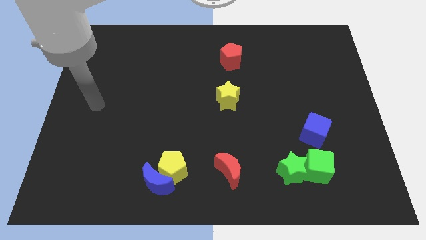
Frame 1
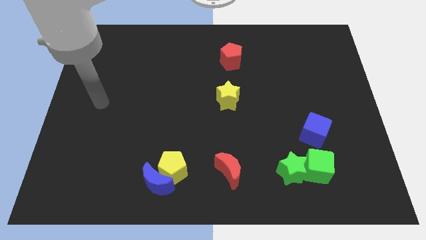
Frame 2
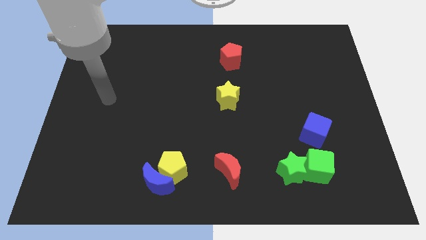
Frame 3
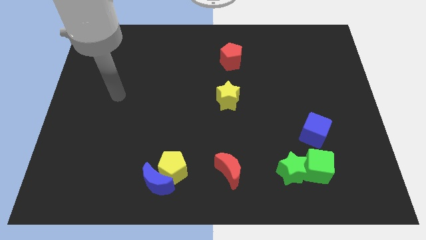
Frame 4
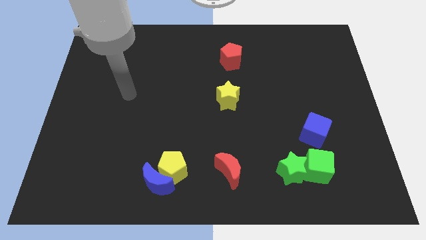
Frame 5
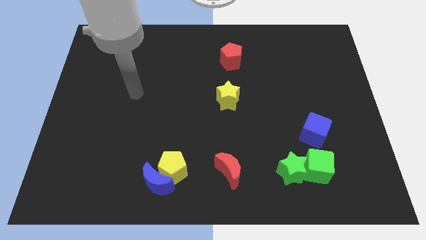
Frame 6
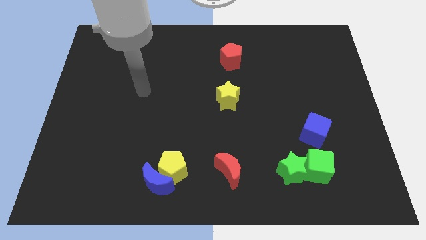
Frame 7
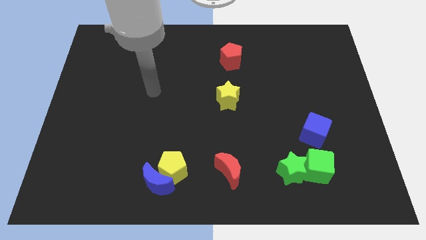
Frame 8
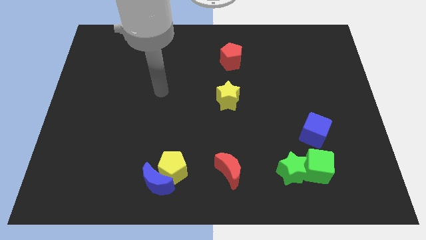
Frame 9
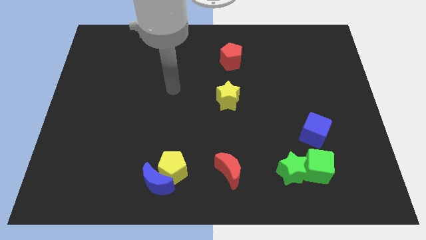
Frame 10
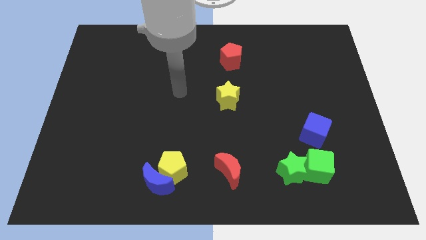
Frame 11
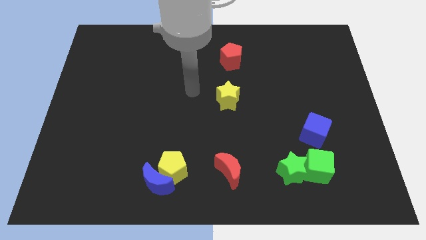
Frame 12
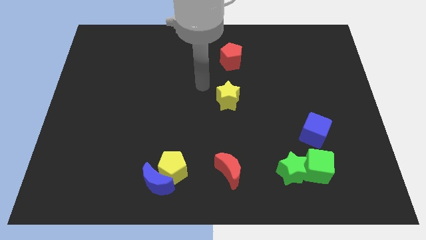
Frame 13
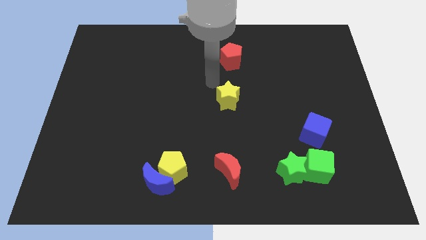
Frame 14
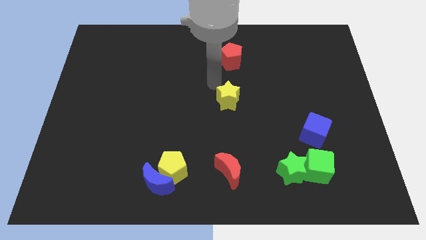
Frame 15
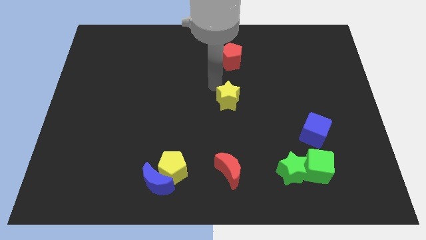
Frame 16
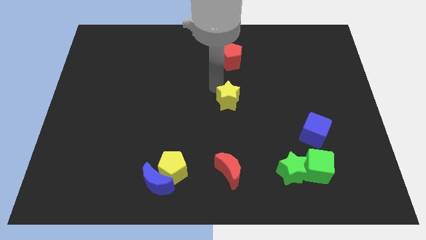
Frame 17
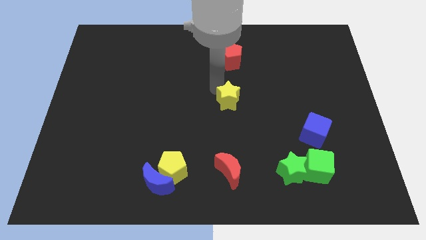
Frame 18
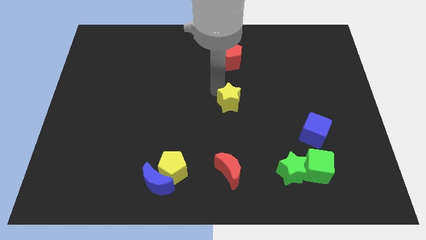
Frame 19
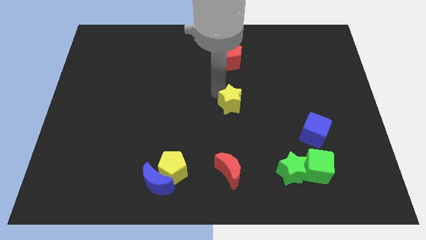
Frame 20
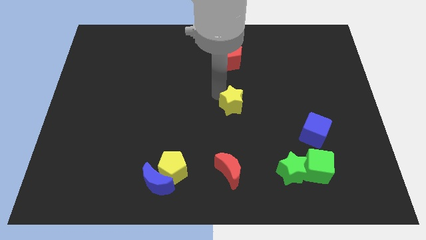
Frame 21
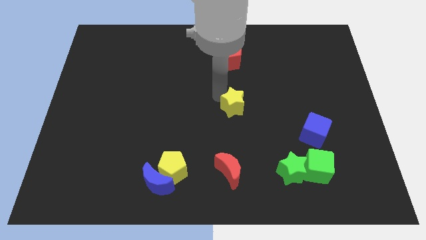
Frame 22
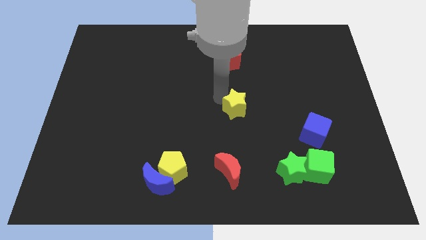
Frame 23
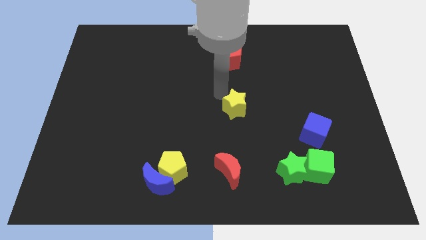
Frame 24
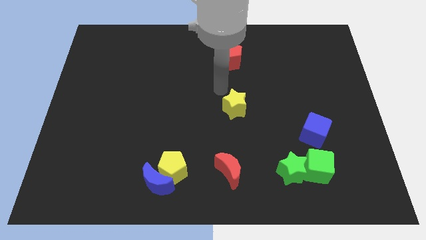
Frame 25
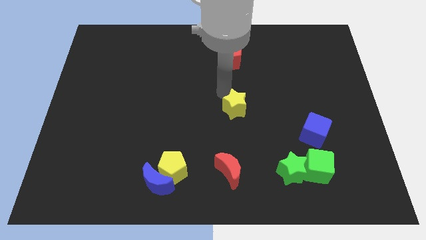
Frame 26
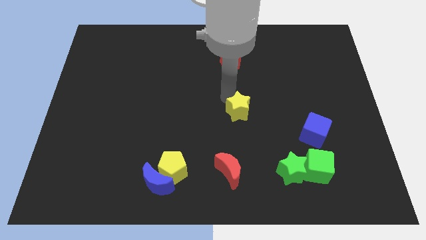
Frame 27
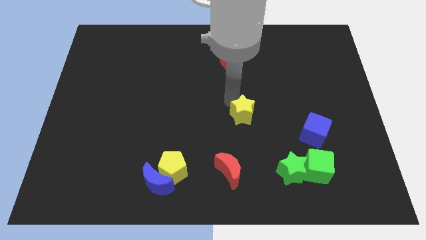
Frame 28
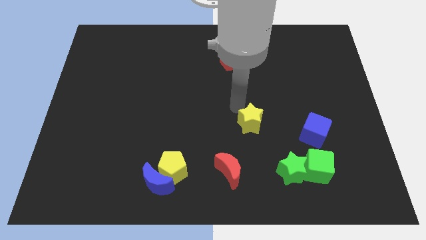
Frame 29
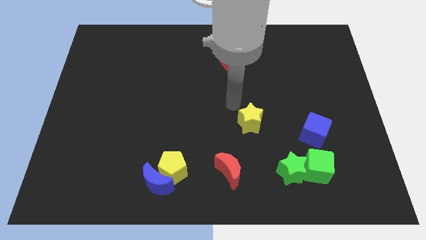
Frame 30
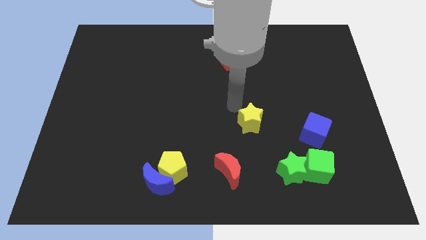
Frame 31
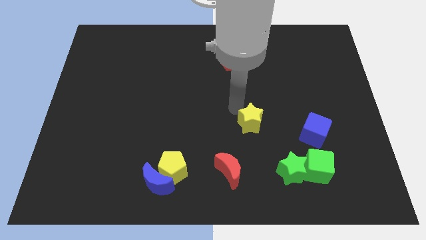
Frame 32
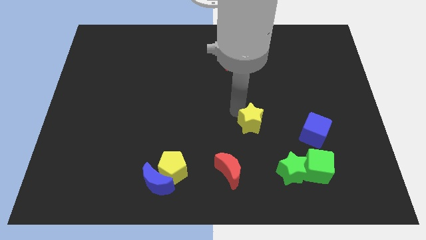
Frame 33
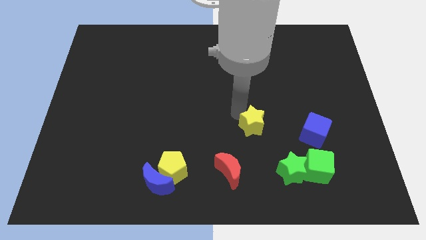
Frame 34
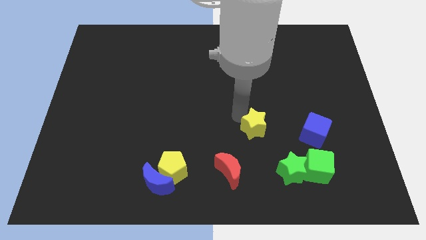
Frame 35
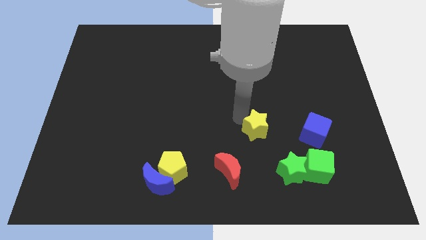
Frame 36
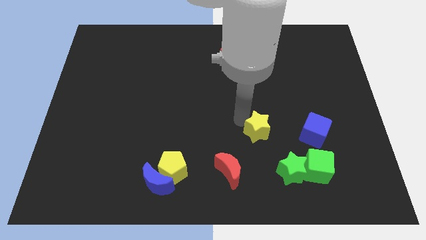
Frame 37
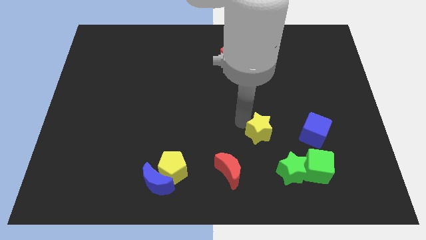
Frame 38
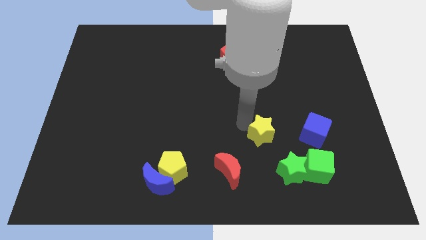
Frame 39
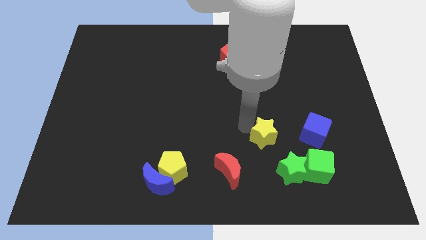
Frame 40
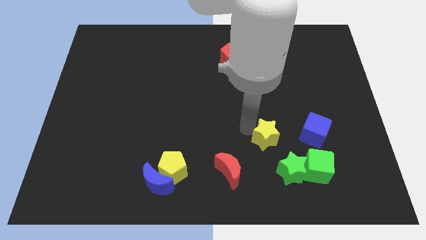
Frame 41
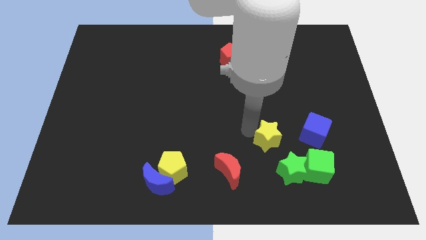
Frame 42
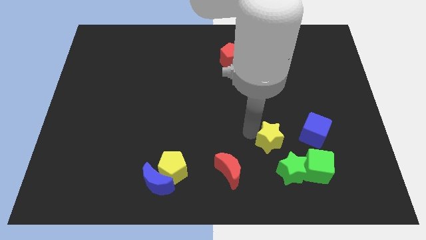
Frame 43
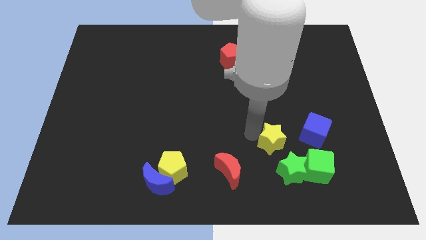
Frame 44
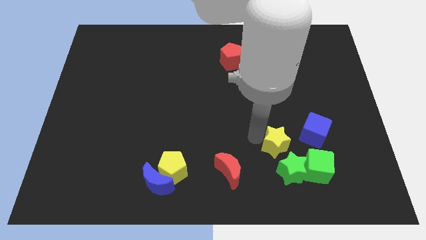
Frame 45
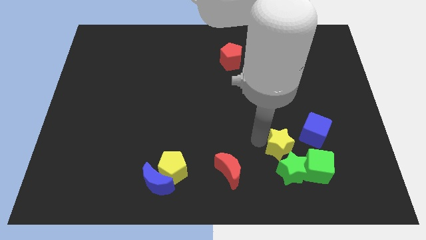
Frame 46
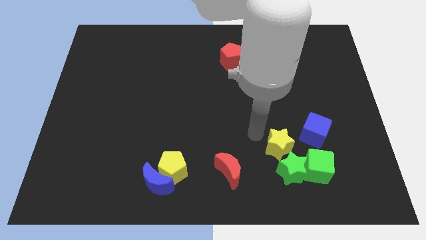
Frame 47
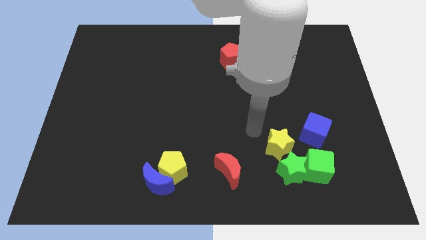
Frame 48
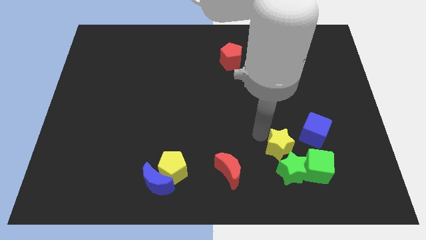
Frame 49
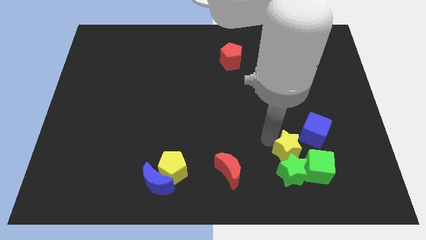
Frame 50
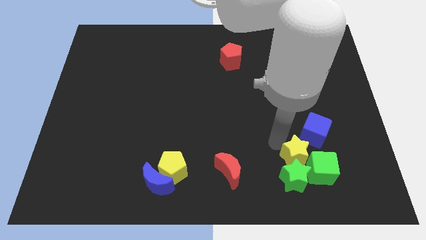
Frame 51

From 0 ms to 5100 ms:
slide the yellow star close to the green cube

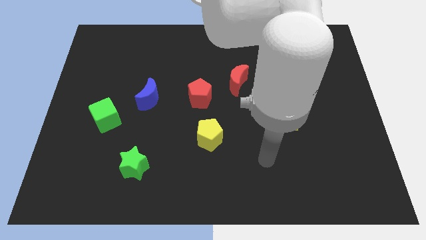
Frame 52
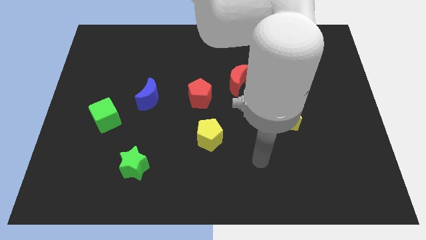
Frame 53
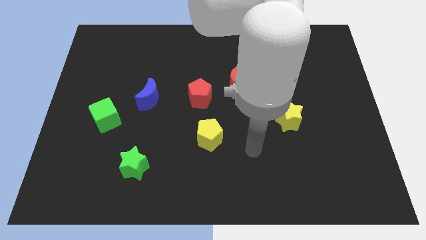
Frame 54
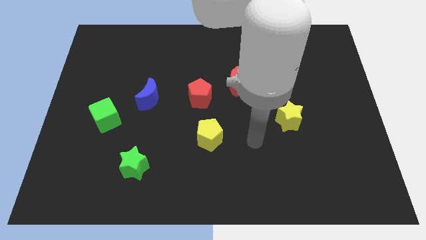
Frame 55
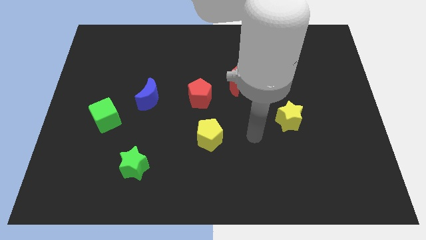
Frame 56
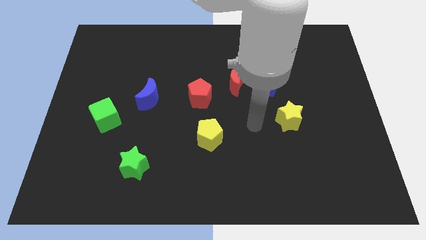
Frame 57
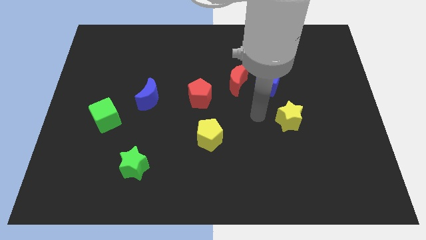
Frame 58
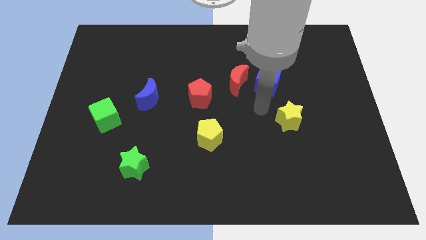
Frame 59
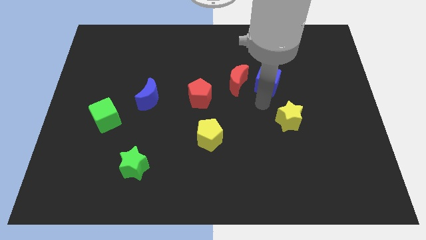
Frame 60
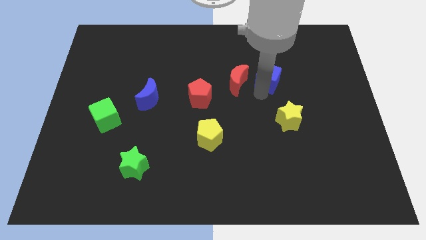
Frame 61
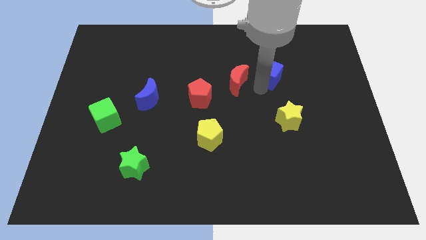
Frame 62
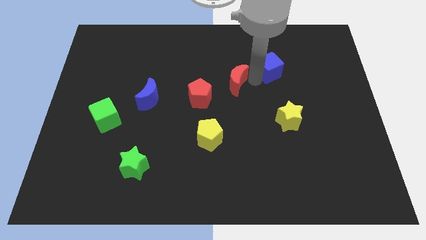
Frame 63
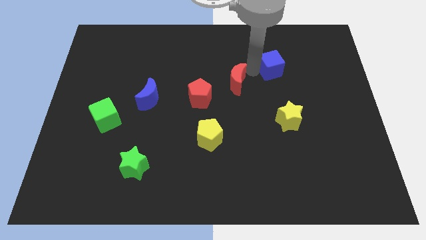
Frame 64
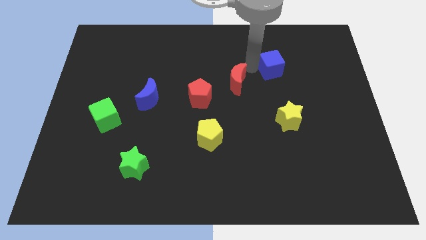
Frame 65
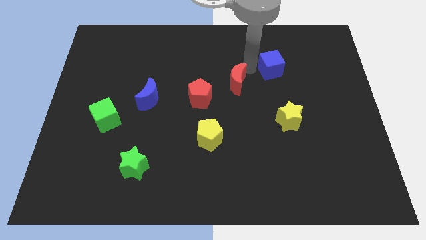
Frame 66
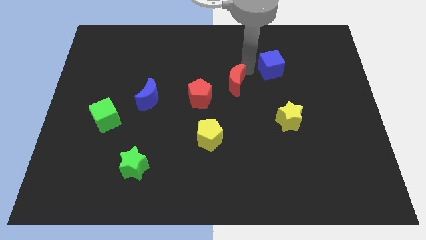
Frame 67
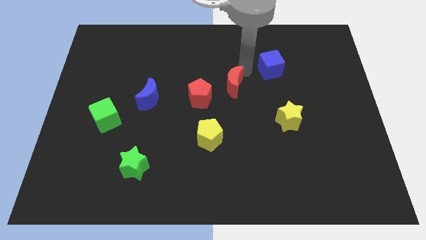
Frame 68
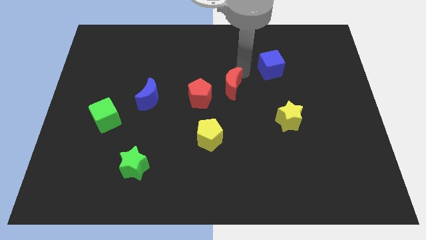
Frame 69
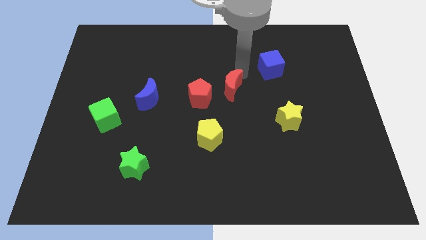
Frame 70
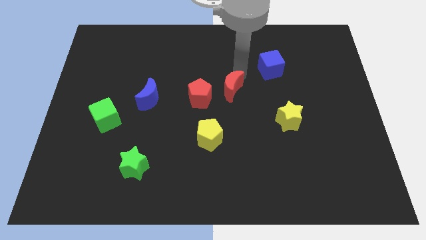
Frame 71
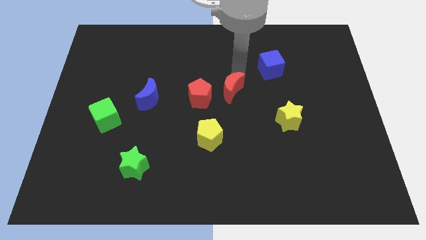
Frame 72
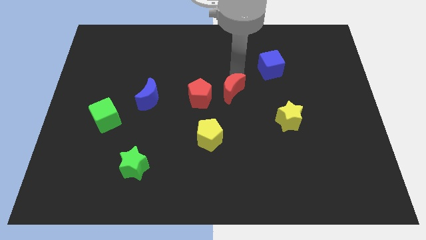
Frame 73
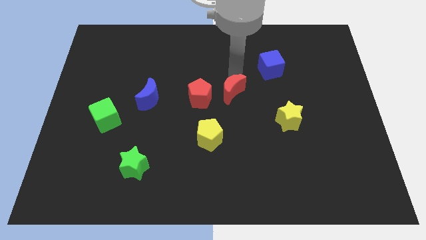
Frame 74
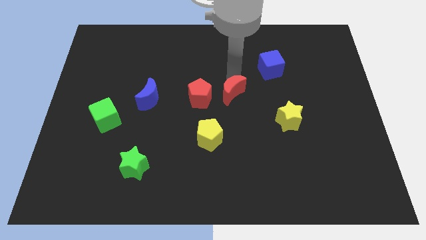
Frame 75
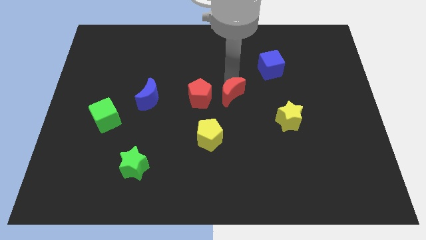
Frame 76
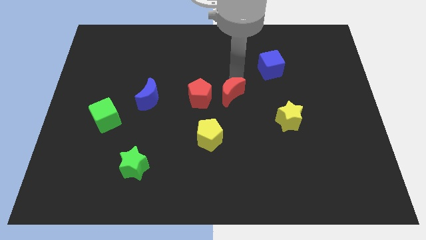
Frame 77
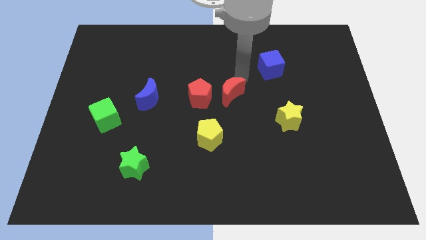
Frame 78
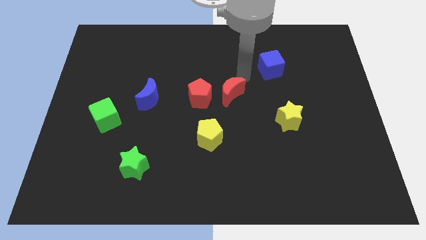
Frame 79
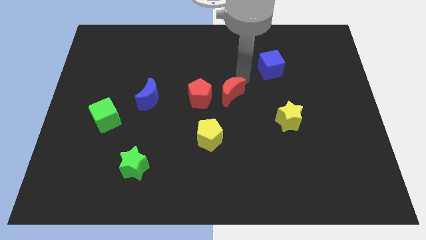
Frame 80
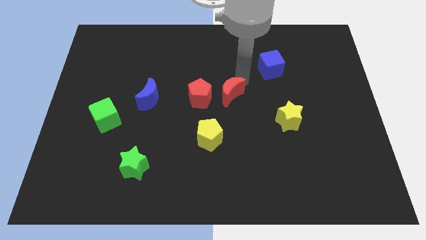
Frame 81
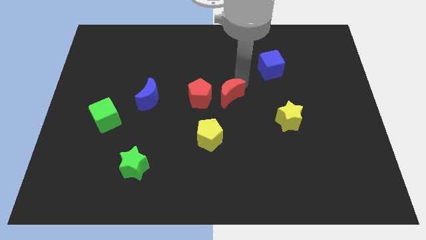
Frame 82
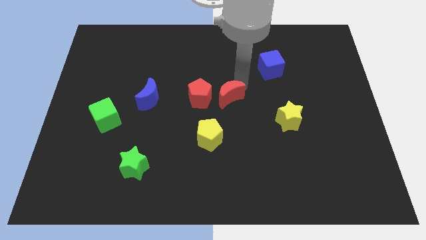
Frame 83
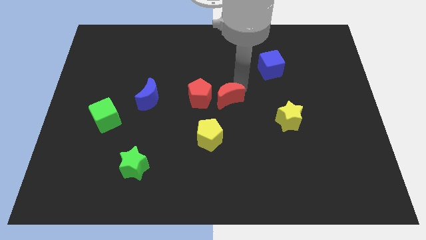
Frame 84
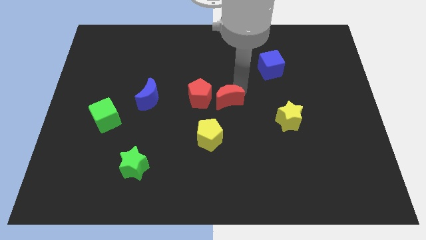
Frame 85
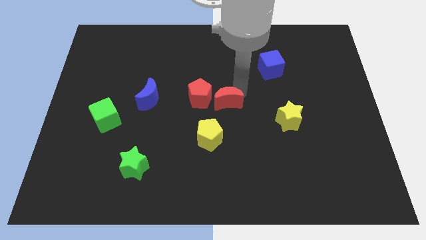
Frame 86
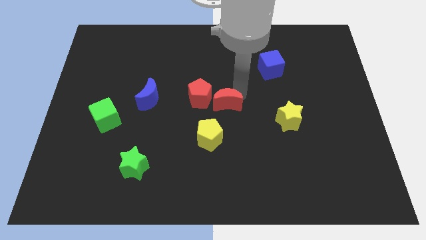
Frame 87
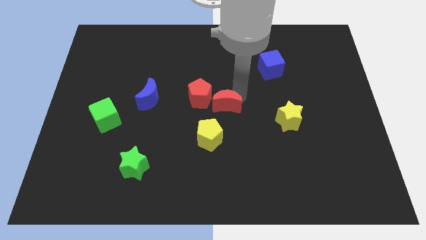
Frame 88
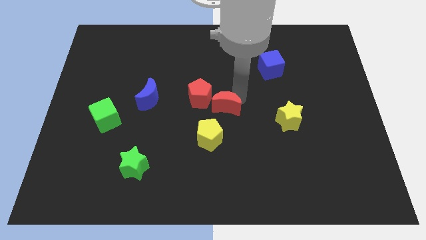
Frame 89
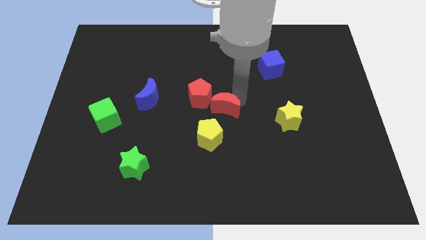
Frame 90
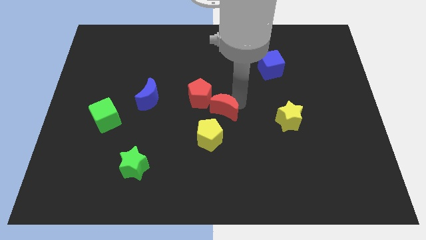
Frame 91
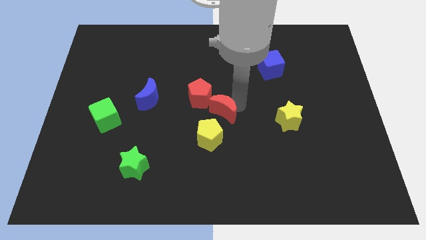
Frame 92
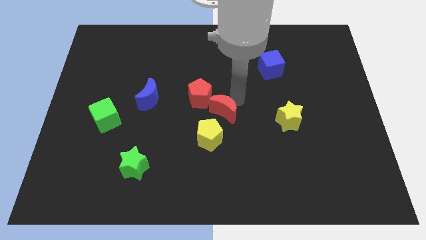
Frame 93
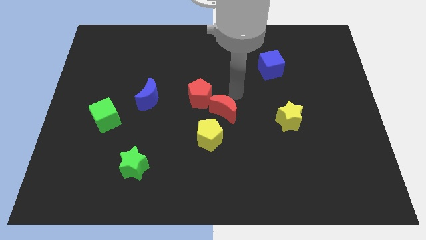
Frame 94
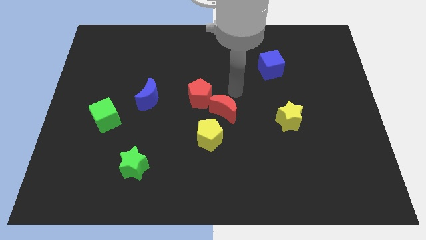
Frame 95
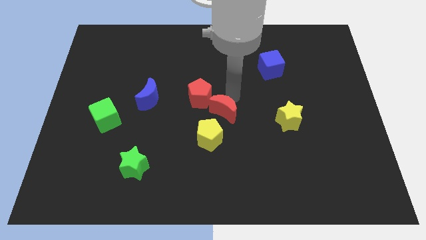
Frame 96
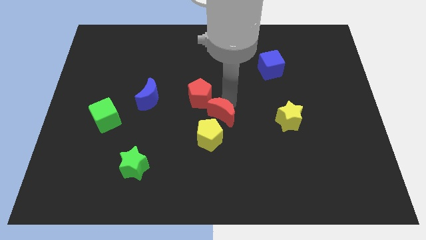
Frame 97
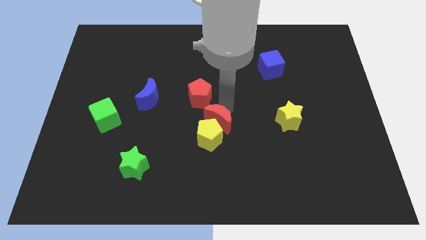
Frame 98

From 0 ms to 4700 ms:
put the red moon to the yellow pentagon
